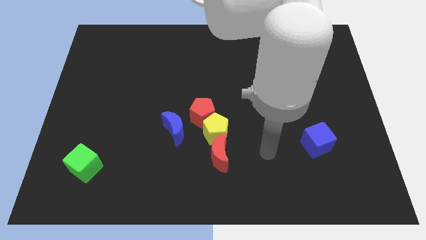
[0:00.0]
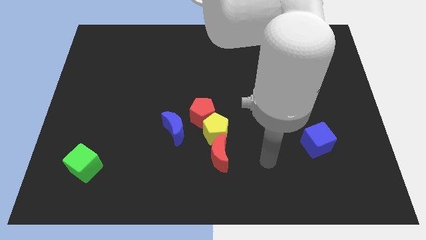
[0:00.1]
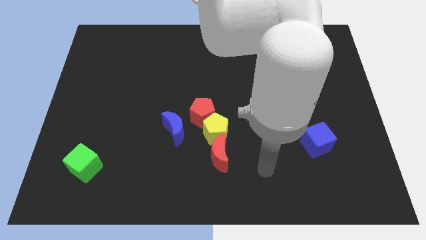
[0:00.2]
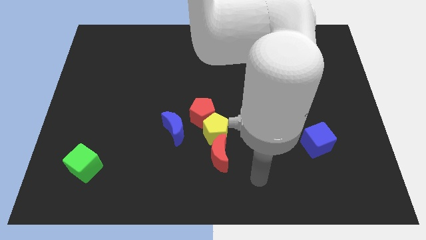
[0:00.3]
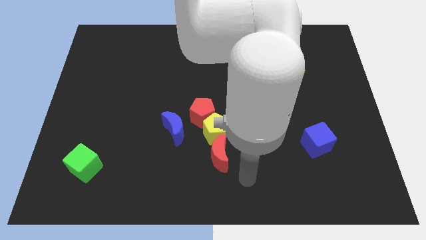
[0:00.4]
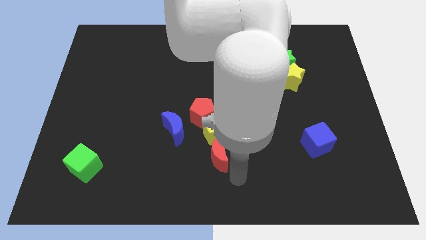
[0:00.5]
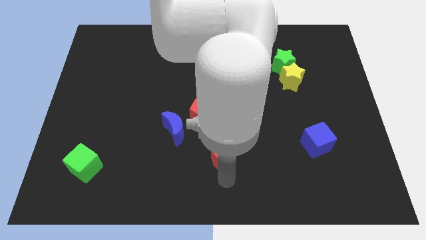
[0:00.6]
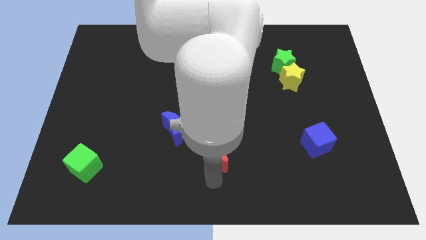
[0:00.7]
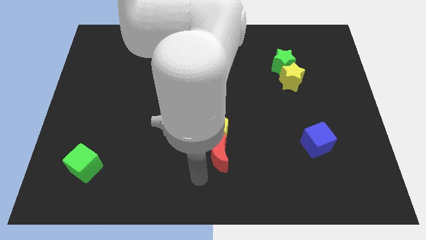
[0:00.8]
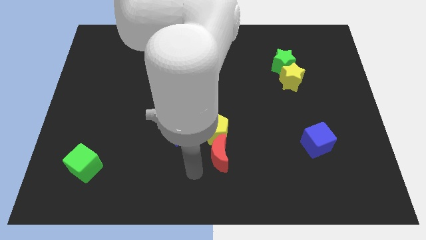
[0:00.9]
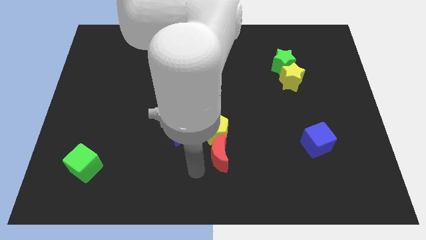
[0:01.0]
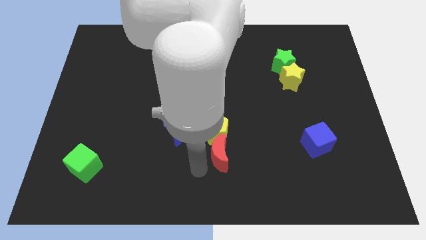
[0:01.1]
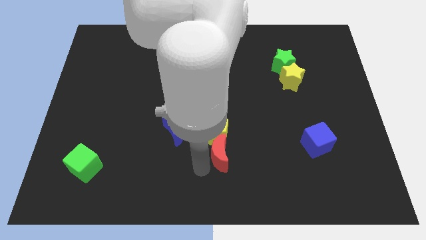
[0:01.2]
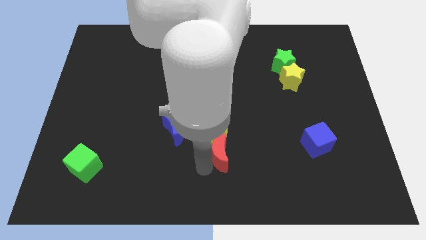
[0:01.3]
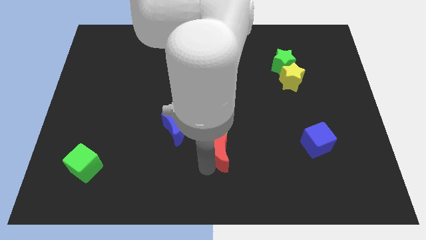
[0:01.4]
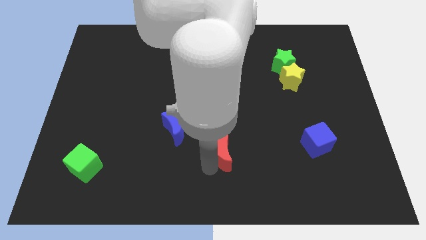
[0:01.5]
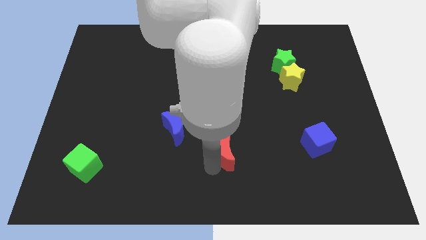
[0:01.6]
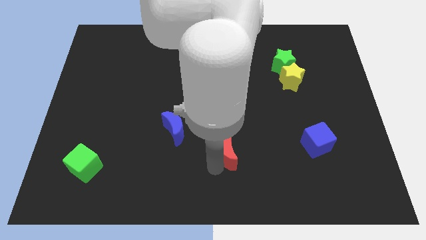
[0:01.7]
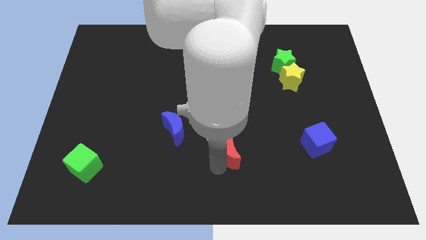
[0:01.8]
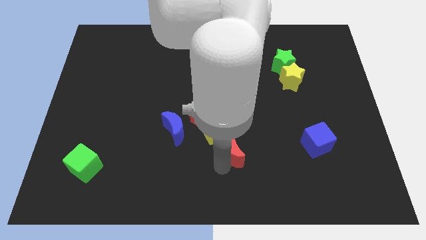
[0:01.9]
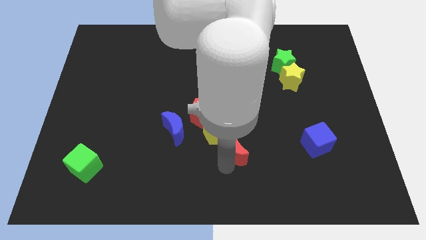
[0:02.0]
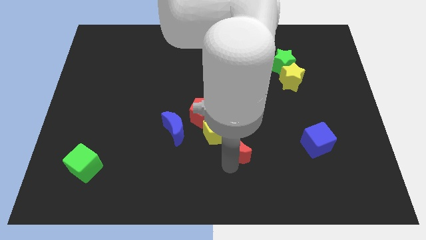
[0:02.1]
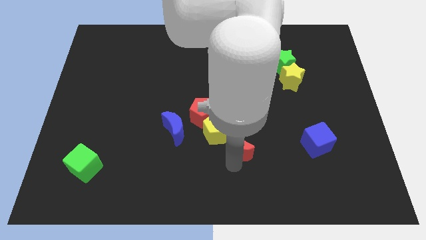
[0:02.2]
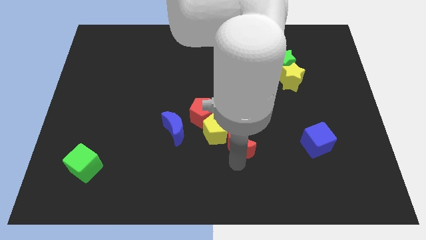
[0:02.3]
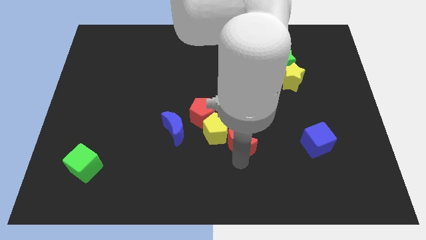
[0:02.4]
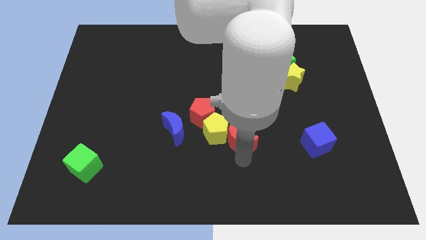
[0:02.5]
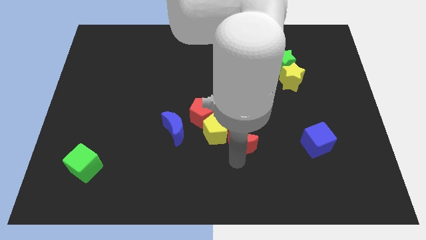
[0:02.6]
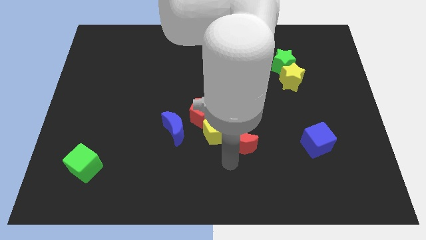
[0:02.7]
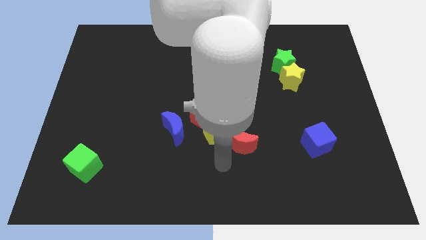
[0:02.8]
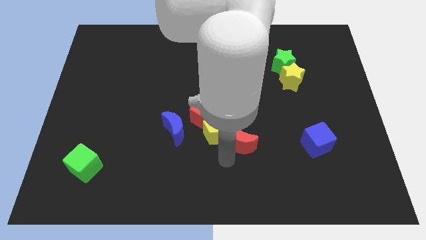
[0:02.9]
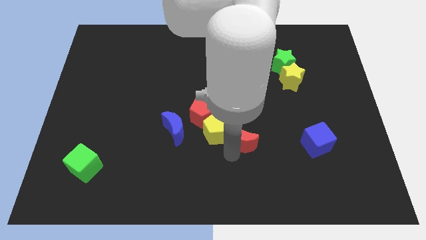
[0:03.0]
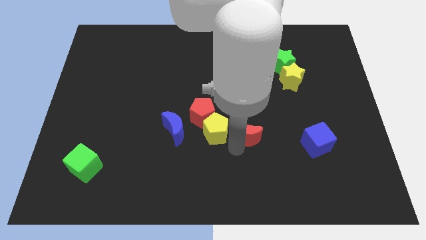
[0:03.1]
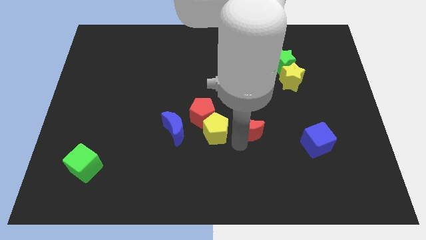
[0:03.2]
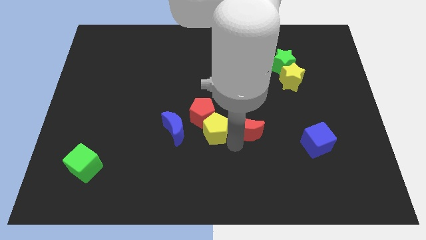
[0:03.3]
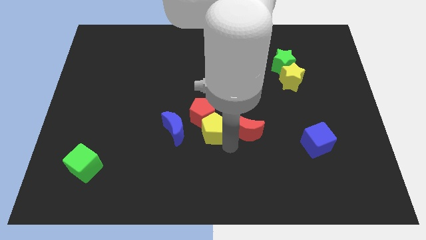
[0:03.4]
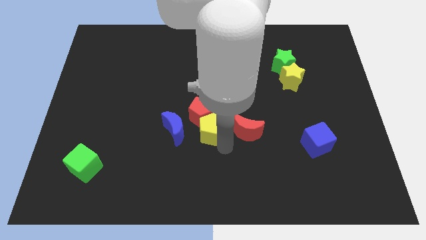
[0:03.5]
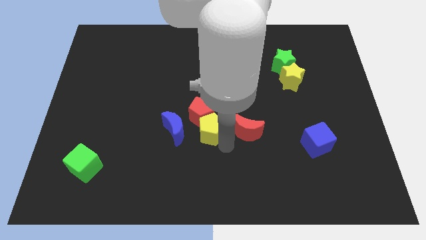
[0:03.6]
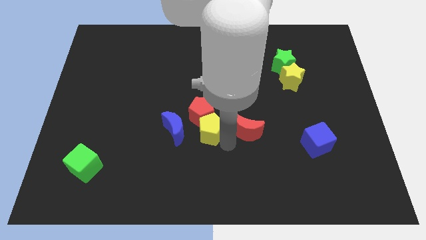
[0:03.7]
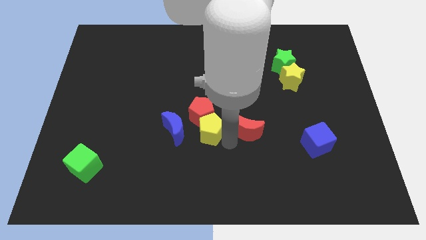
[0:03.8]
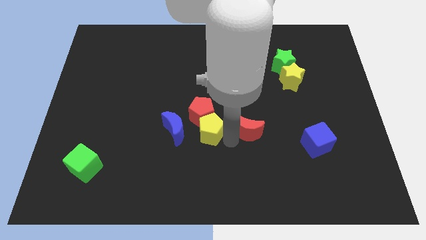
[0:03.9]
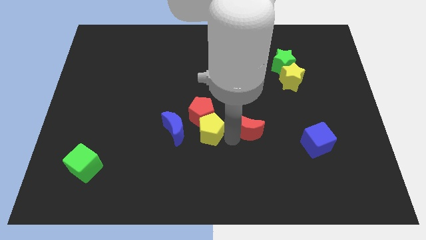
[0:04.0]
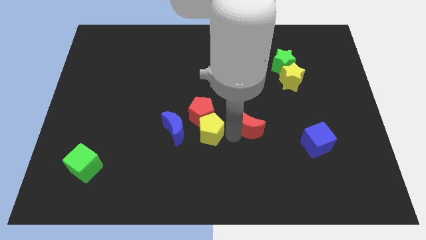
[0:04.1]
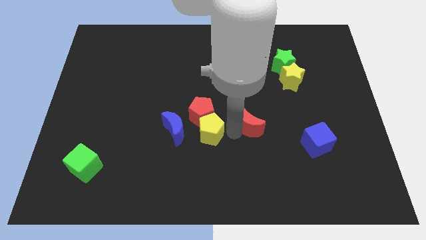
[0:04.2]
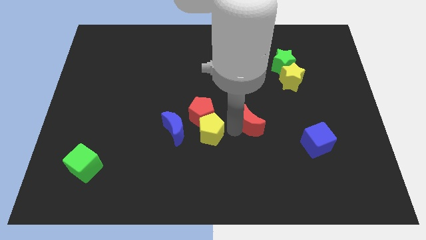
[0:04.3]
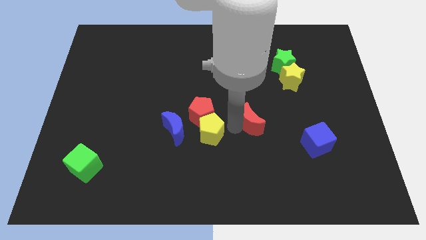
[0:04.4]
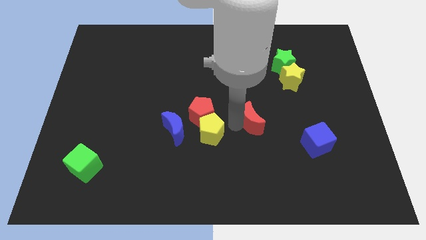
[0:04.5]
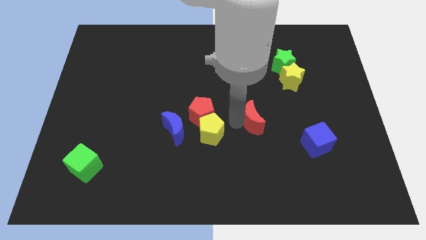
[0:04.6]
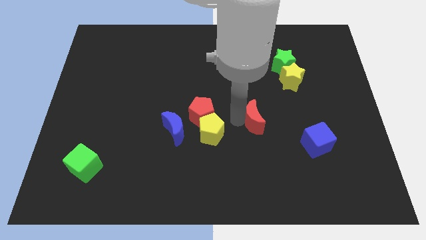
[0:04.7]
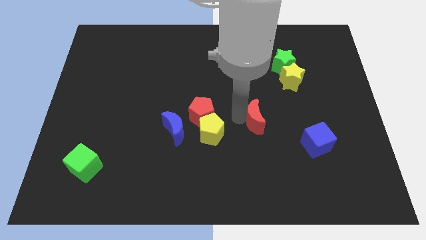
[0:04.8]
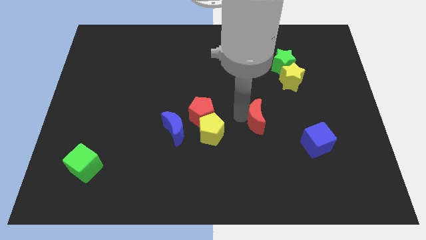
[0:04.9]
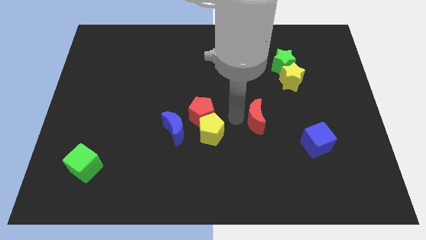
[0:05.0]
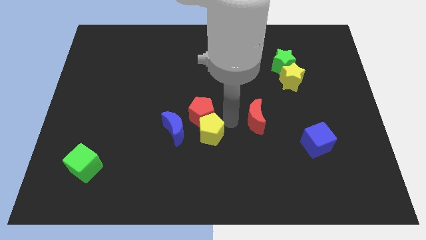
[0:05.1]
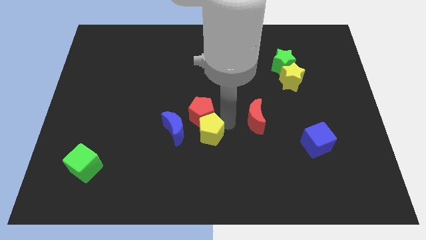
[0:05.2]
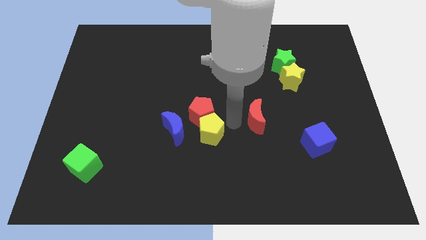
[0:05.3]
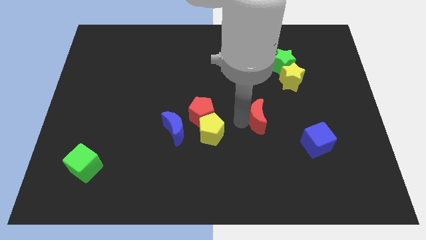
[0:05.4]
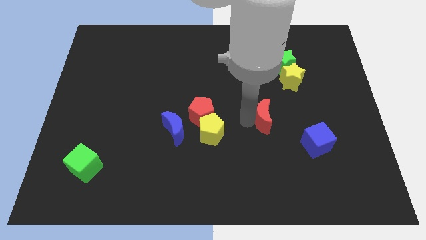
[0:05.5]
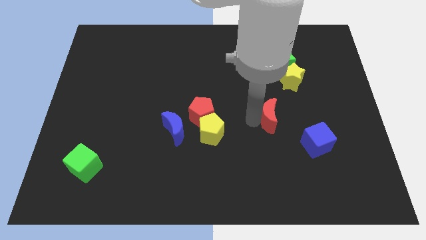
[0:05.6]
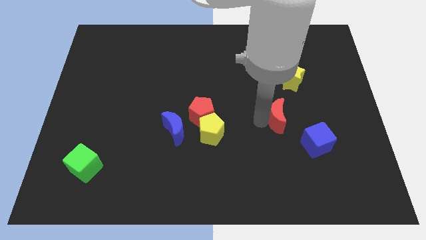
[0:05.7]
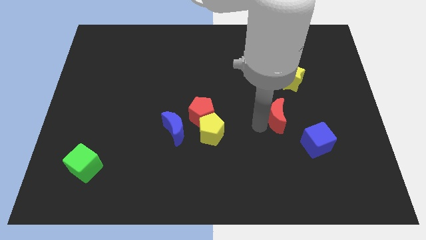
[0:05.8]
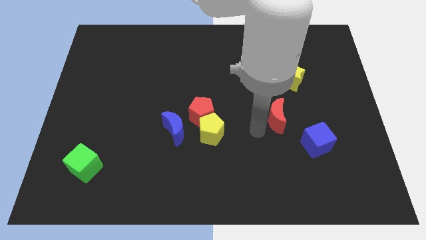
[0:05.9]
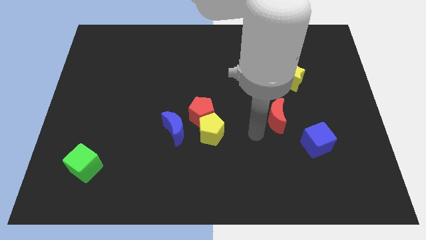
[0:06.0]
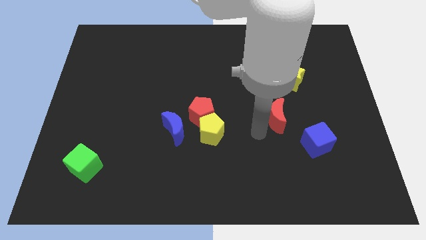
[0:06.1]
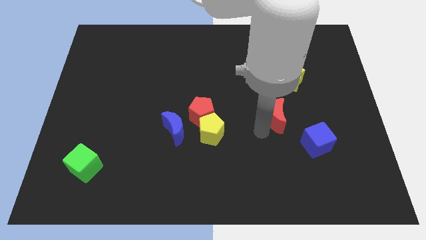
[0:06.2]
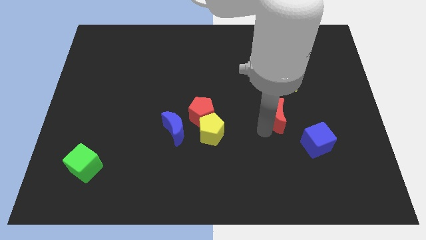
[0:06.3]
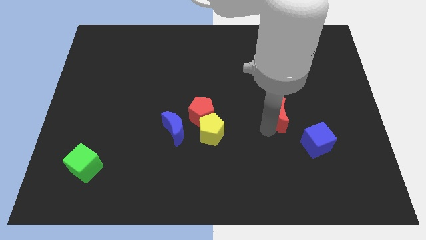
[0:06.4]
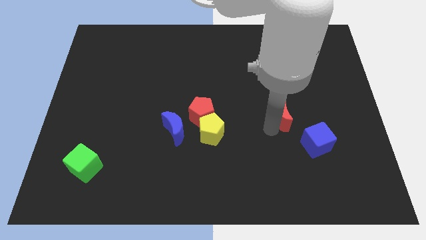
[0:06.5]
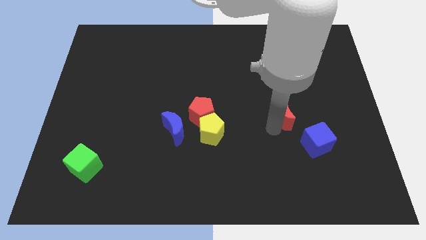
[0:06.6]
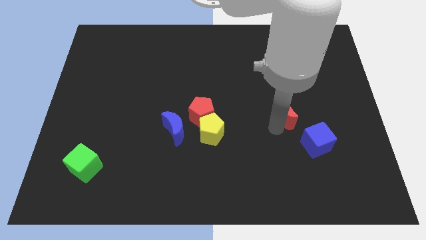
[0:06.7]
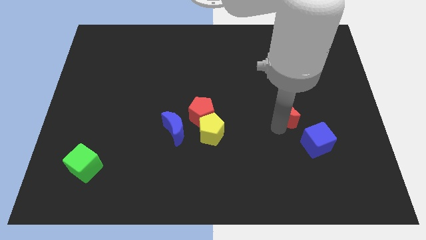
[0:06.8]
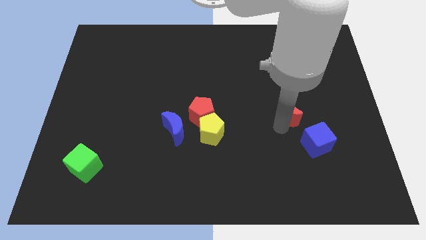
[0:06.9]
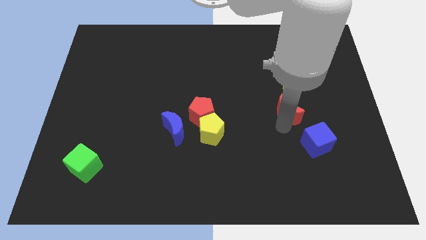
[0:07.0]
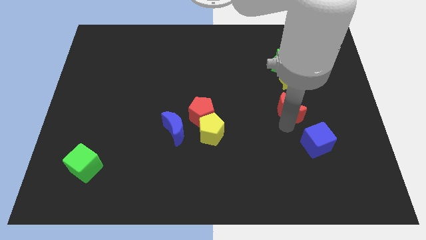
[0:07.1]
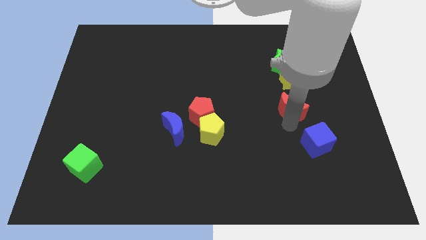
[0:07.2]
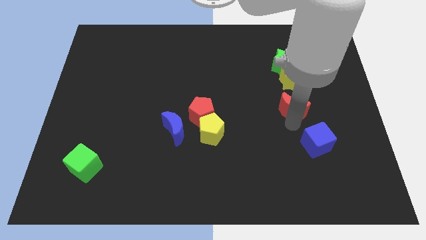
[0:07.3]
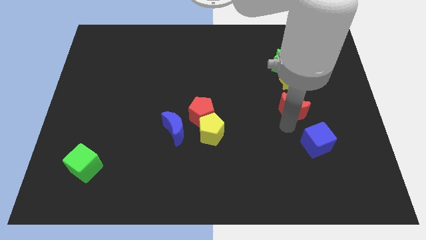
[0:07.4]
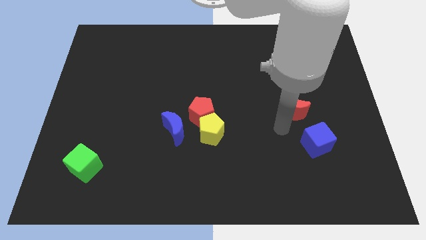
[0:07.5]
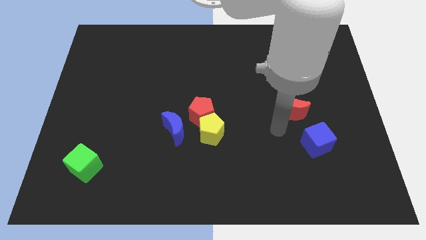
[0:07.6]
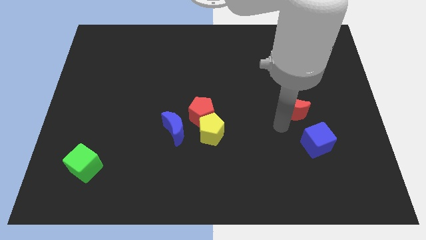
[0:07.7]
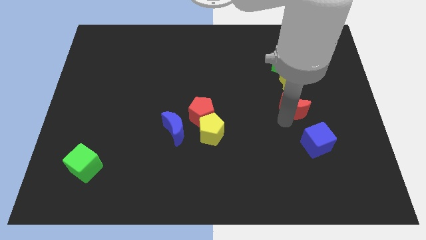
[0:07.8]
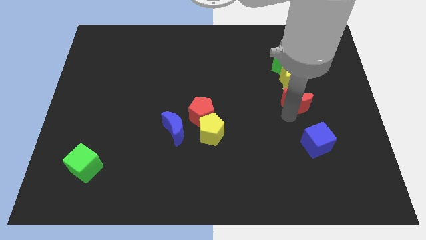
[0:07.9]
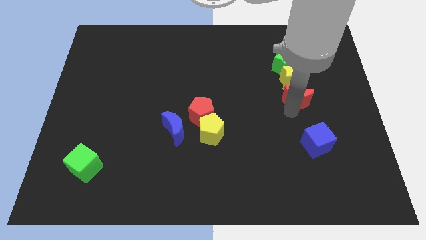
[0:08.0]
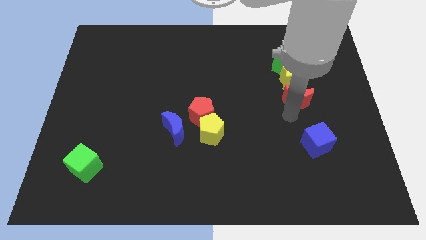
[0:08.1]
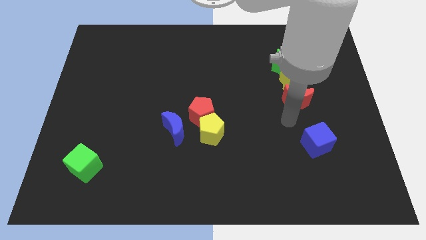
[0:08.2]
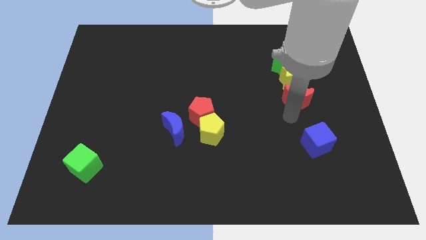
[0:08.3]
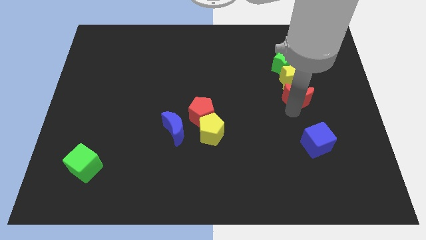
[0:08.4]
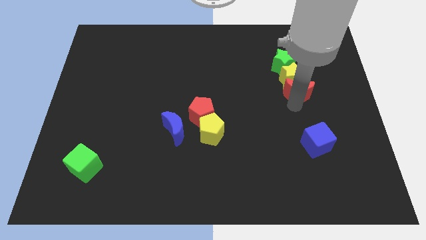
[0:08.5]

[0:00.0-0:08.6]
slide the red moon diagonally down and to the right of the green star

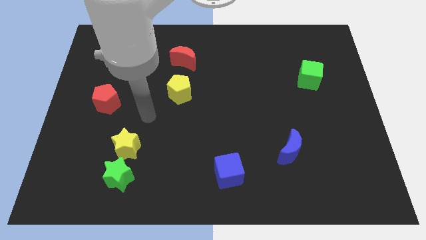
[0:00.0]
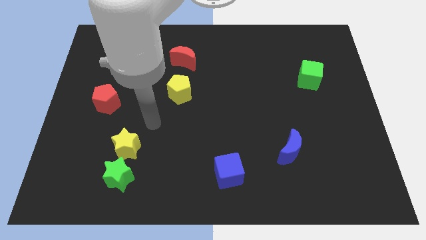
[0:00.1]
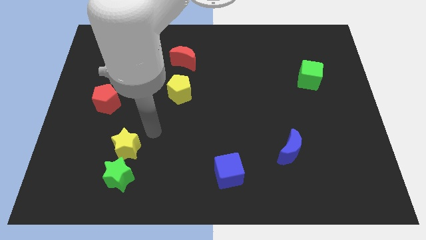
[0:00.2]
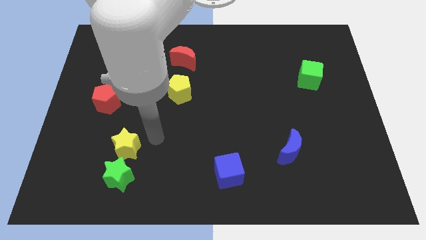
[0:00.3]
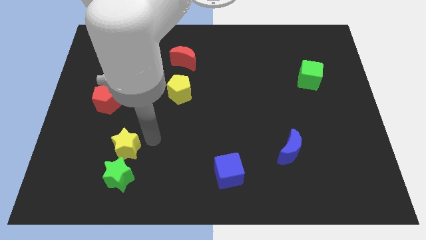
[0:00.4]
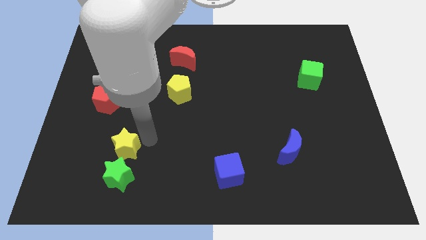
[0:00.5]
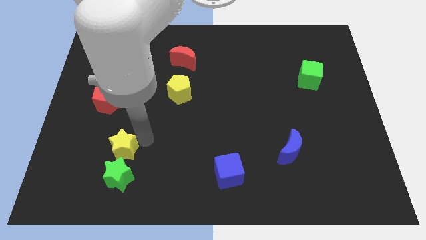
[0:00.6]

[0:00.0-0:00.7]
move the yellow star to the top left of the green star
